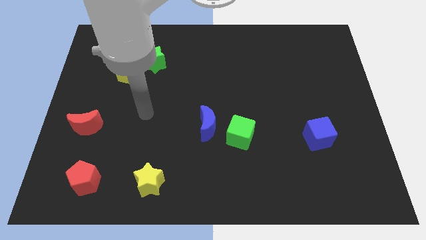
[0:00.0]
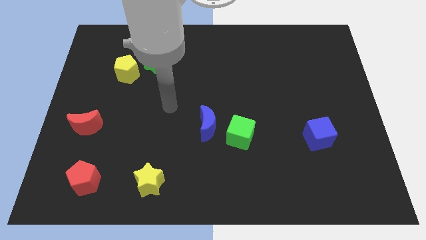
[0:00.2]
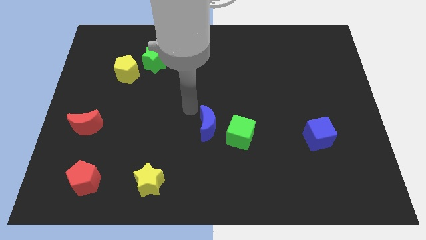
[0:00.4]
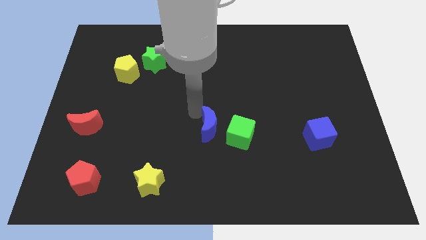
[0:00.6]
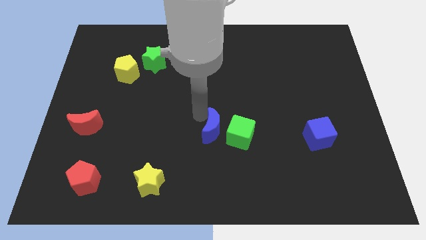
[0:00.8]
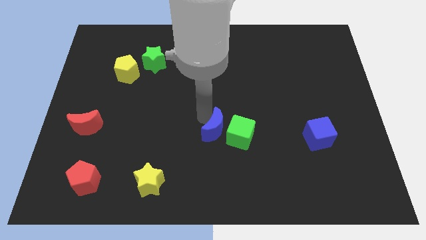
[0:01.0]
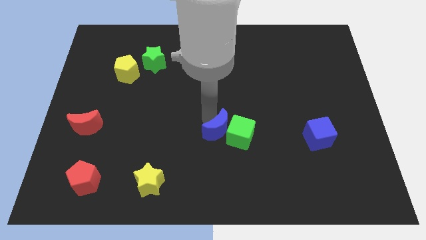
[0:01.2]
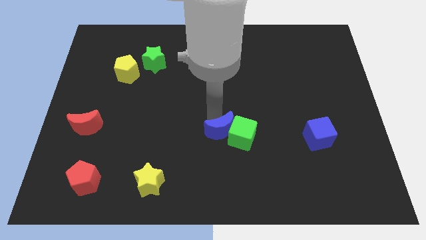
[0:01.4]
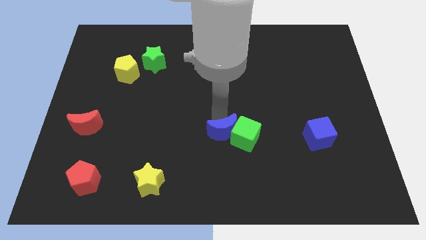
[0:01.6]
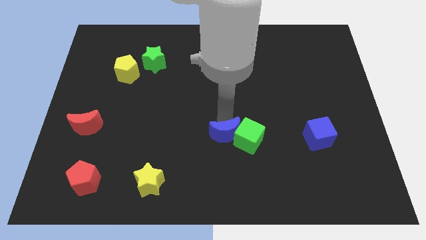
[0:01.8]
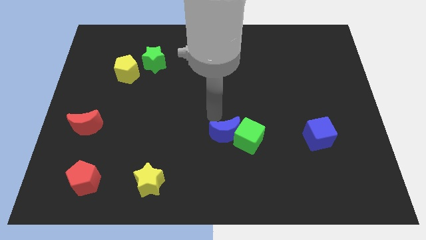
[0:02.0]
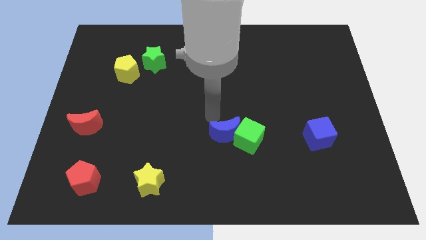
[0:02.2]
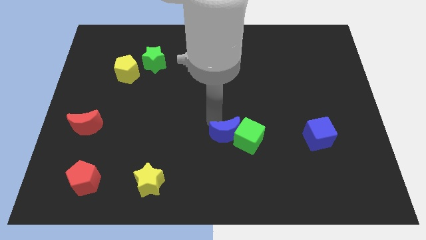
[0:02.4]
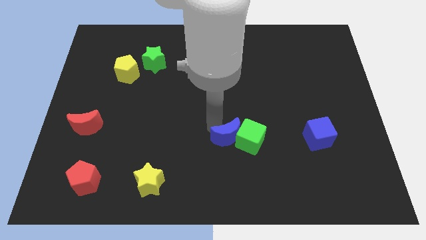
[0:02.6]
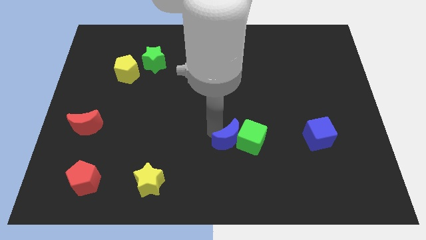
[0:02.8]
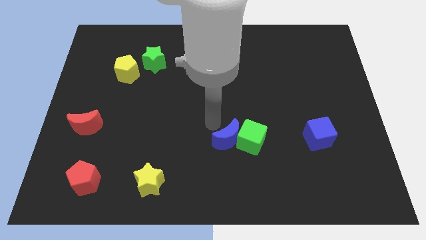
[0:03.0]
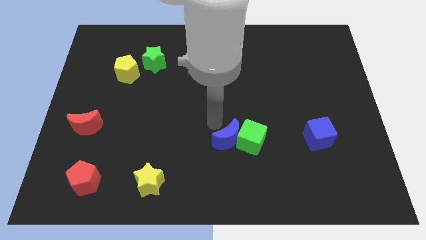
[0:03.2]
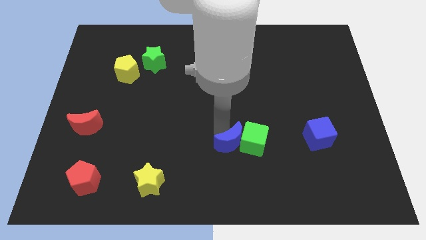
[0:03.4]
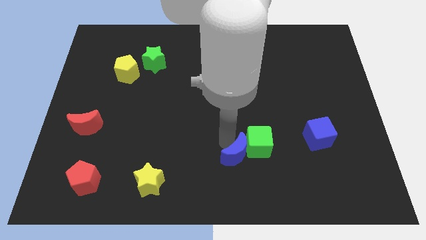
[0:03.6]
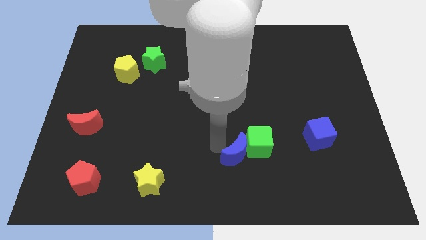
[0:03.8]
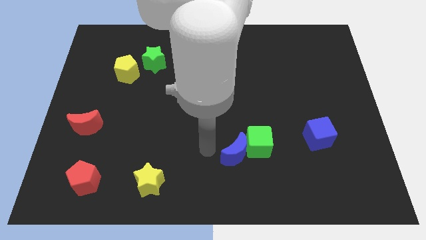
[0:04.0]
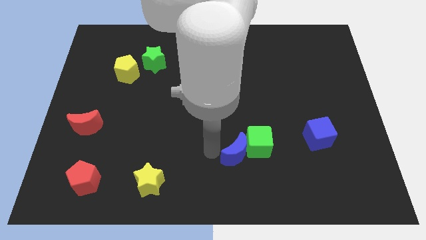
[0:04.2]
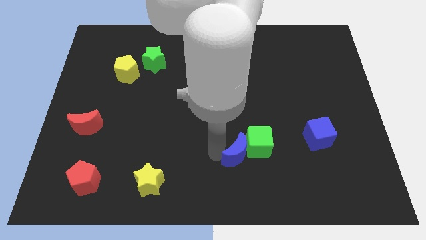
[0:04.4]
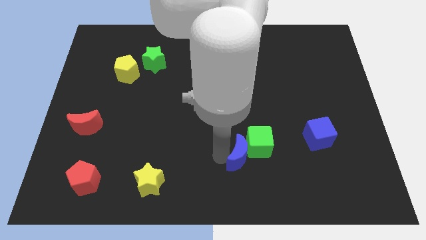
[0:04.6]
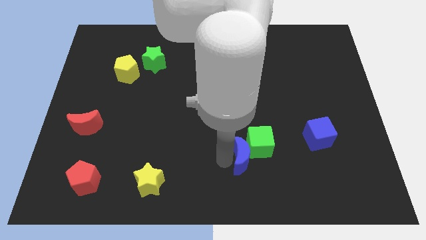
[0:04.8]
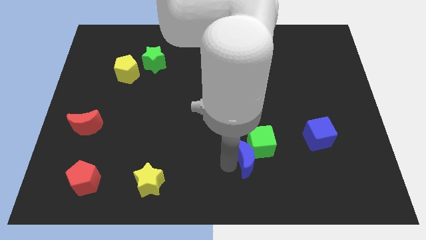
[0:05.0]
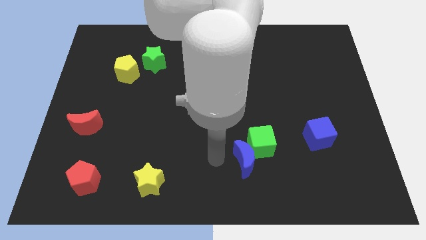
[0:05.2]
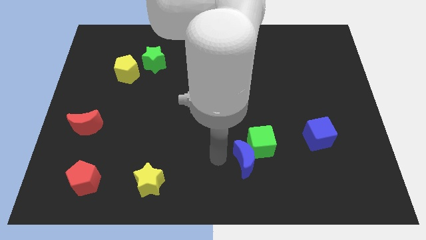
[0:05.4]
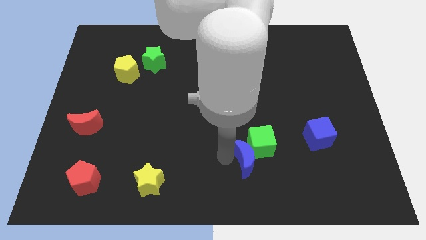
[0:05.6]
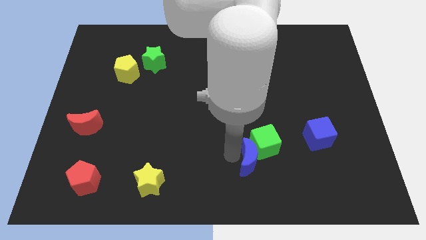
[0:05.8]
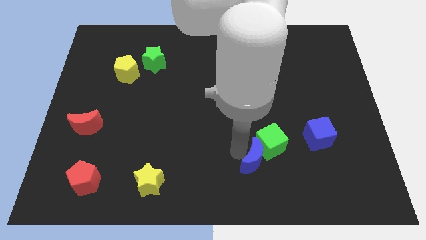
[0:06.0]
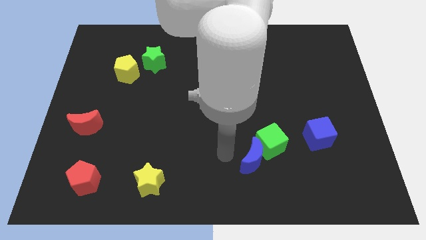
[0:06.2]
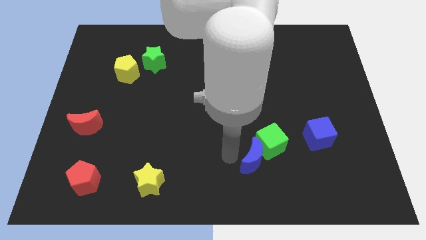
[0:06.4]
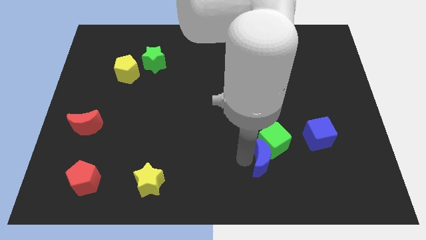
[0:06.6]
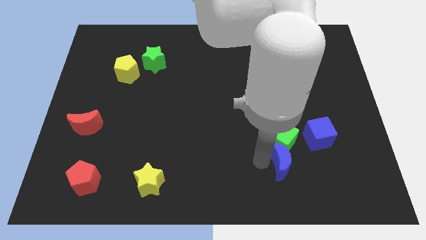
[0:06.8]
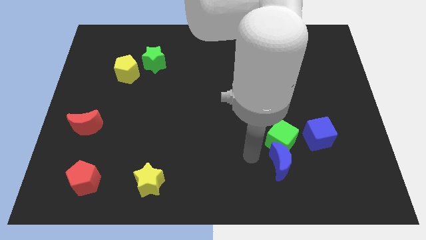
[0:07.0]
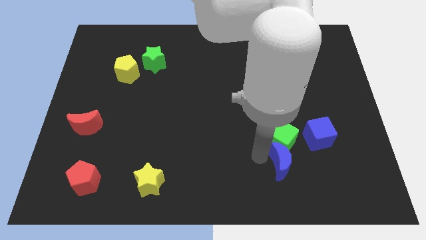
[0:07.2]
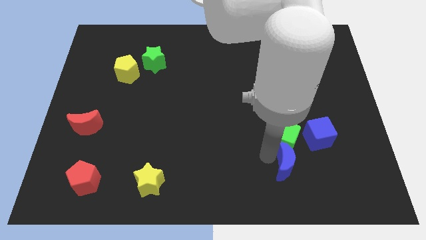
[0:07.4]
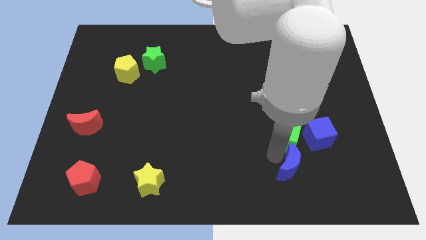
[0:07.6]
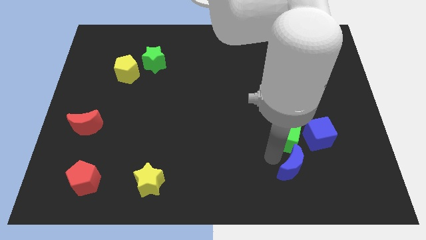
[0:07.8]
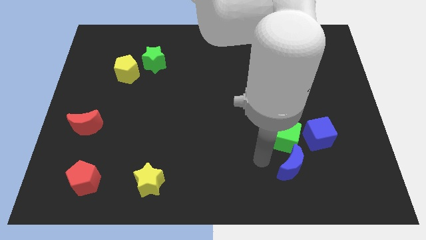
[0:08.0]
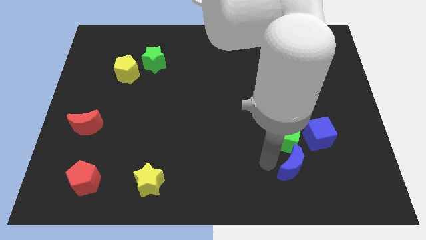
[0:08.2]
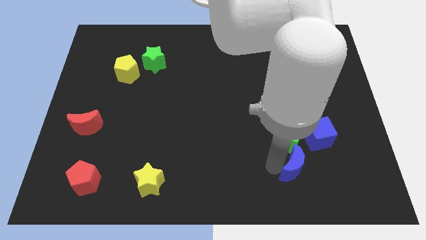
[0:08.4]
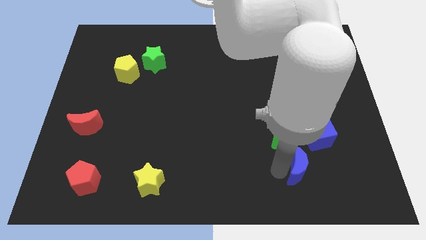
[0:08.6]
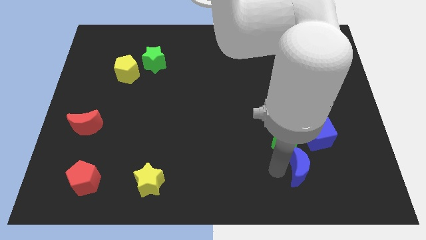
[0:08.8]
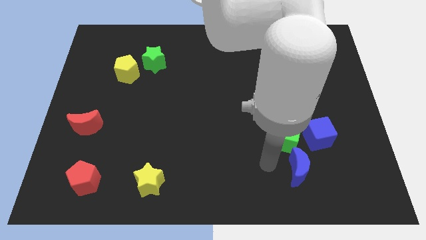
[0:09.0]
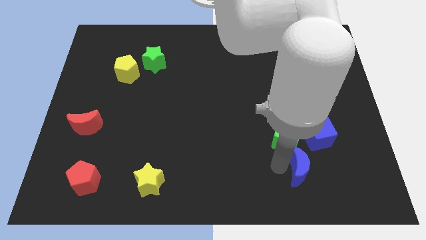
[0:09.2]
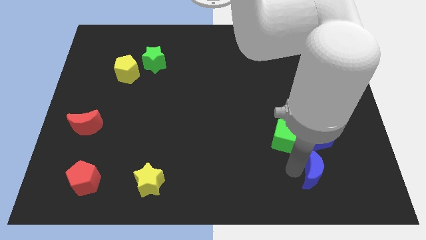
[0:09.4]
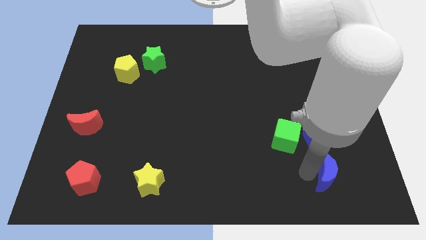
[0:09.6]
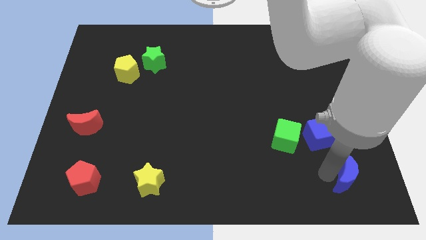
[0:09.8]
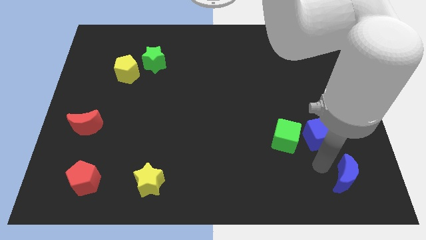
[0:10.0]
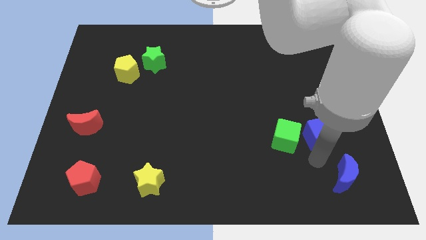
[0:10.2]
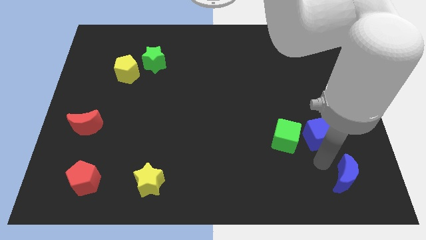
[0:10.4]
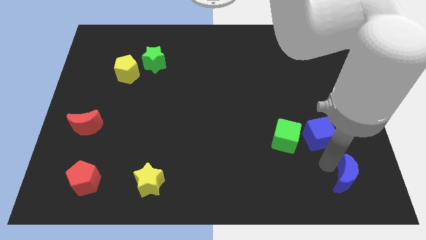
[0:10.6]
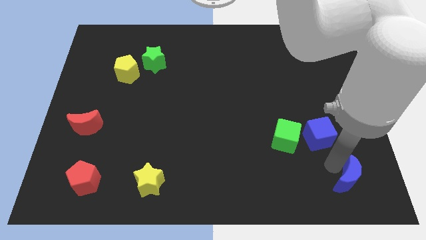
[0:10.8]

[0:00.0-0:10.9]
slide the blue moon to the lower right corner

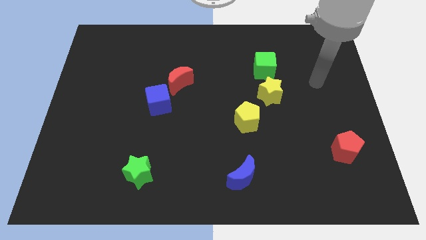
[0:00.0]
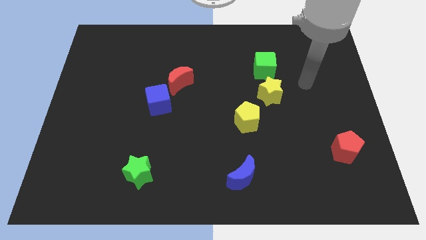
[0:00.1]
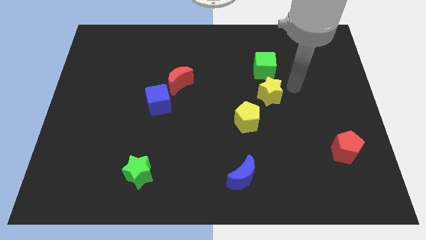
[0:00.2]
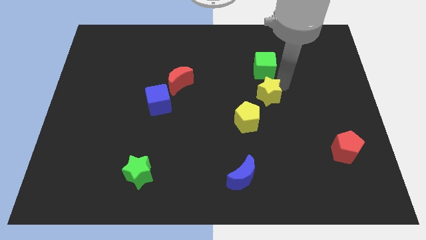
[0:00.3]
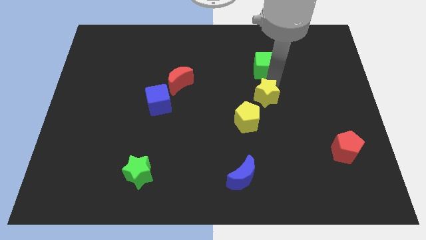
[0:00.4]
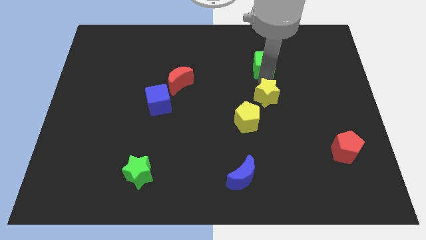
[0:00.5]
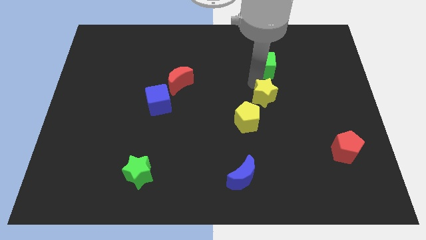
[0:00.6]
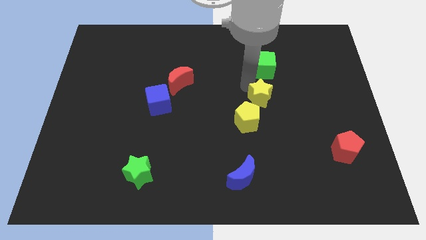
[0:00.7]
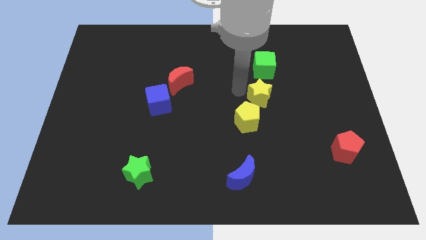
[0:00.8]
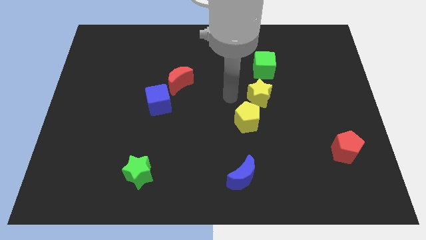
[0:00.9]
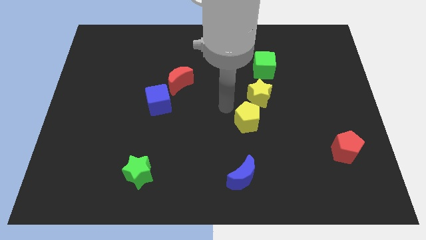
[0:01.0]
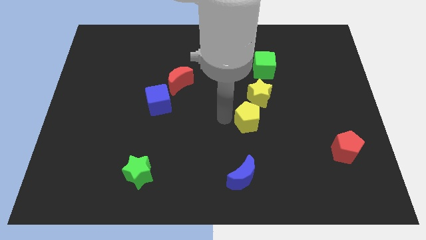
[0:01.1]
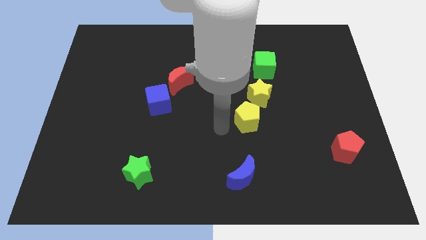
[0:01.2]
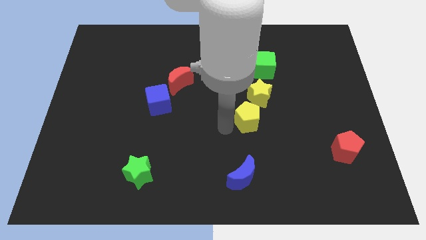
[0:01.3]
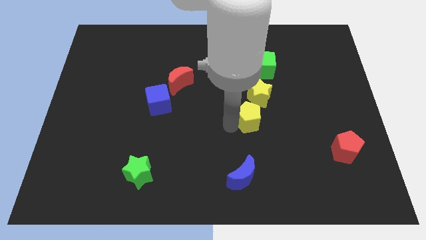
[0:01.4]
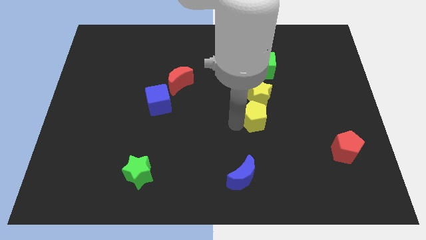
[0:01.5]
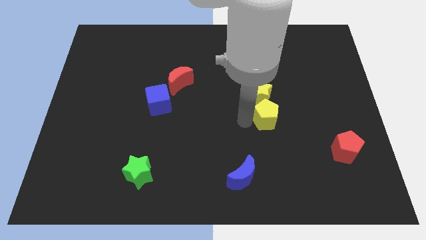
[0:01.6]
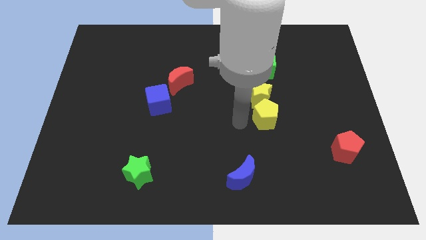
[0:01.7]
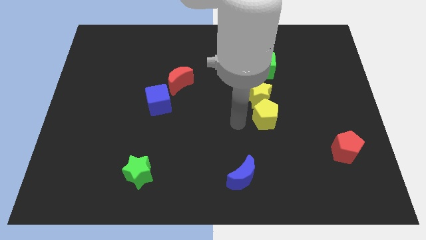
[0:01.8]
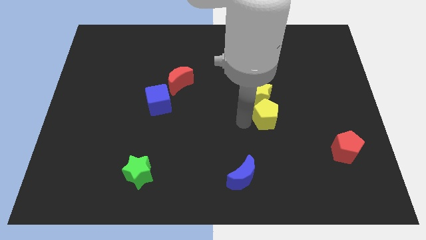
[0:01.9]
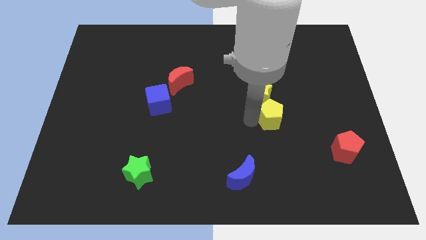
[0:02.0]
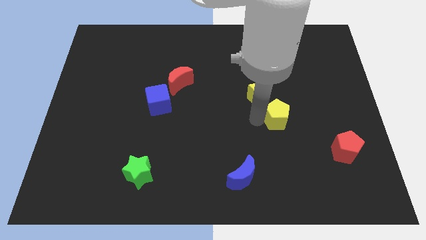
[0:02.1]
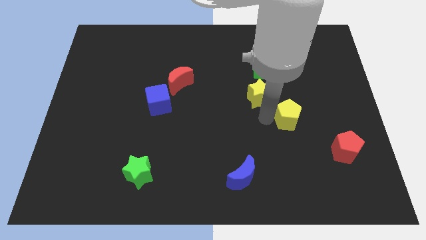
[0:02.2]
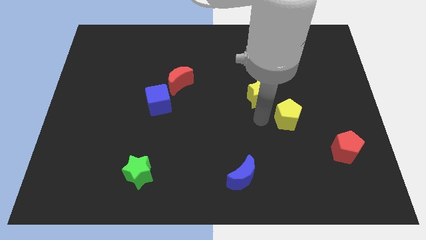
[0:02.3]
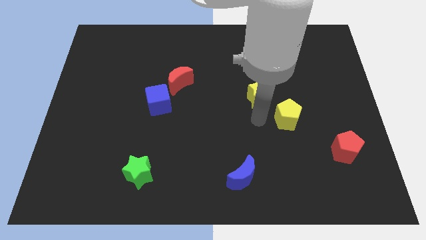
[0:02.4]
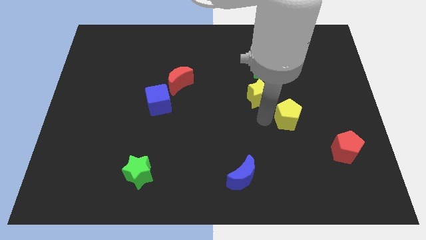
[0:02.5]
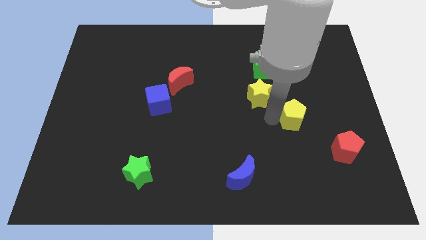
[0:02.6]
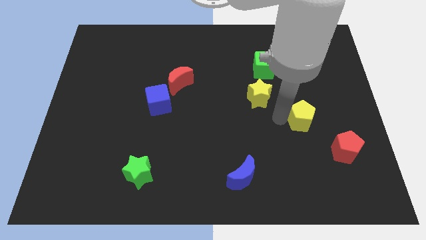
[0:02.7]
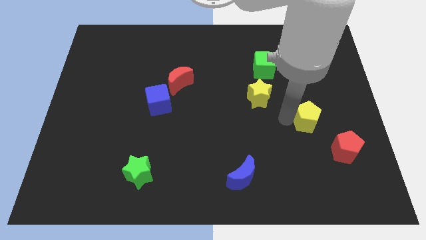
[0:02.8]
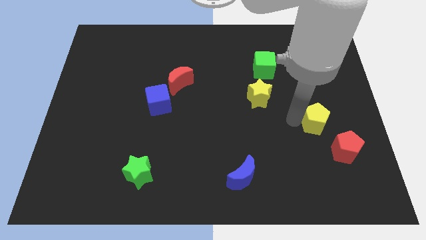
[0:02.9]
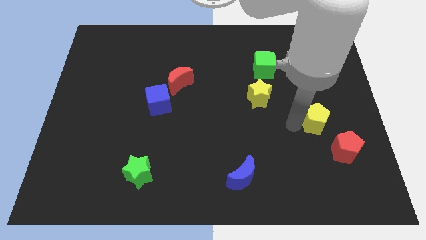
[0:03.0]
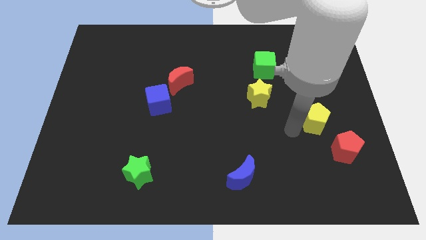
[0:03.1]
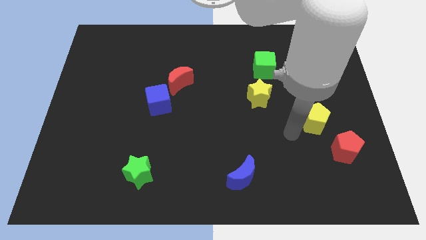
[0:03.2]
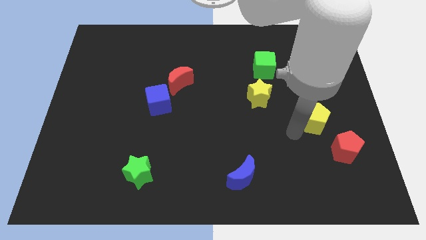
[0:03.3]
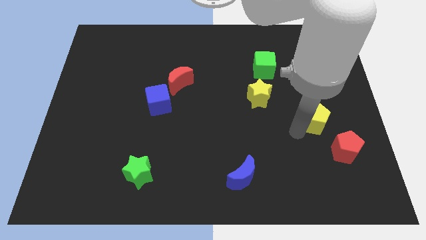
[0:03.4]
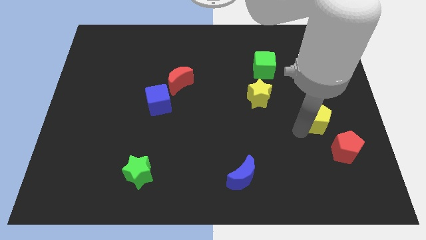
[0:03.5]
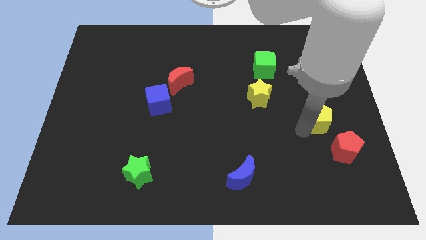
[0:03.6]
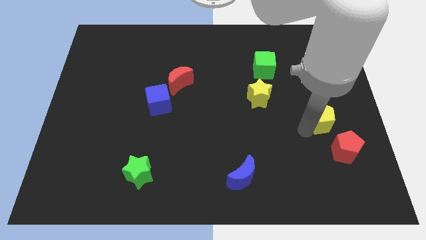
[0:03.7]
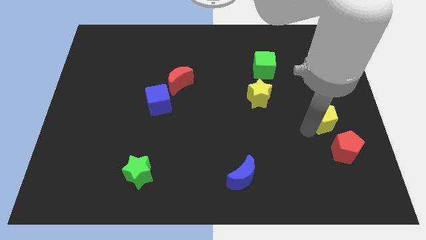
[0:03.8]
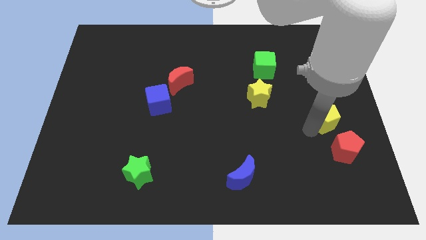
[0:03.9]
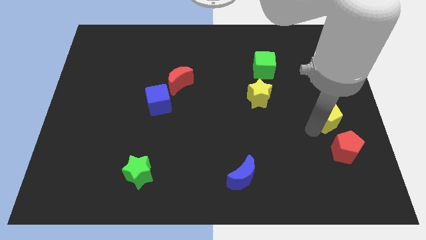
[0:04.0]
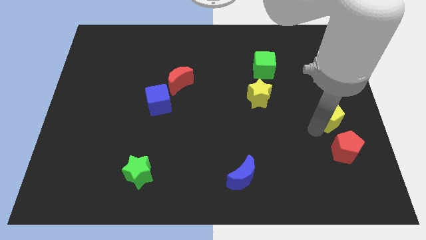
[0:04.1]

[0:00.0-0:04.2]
push the yellow pentagon to the right side
